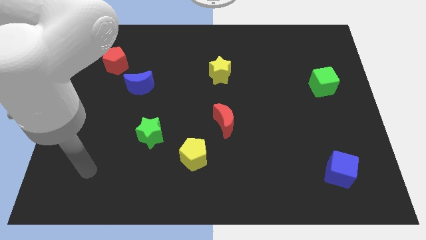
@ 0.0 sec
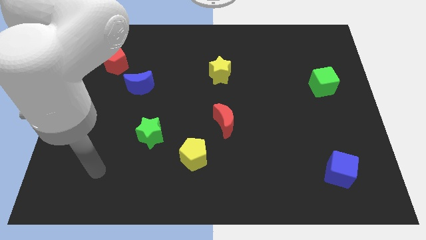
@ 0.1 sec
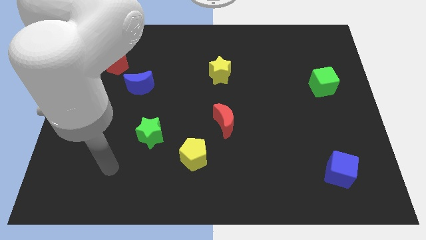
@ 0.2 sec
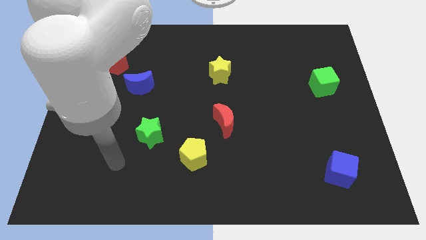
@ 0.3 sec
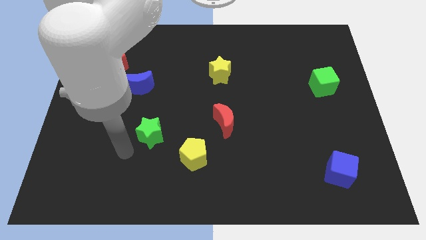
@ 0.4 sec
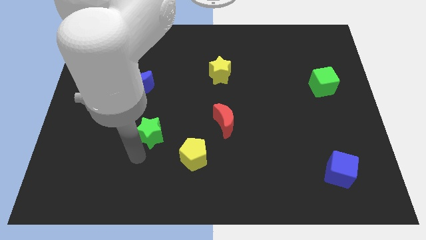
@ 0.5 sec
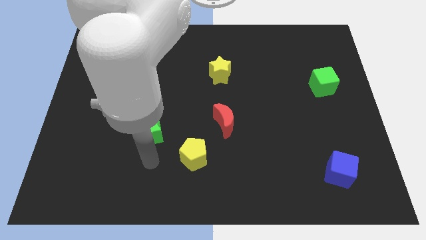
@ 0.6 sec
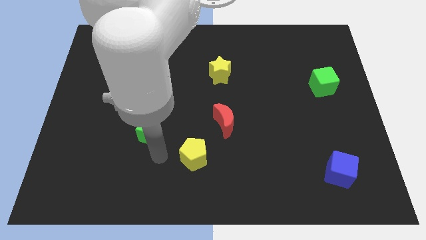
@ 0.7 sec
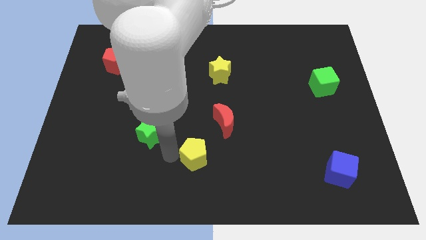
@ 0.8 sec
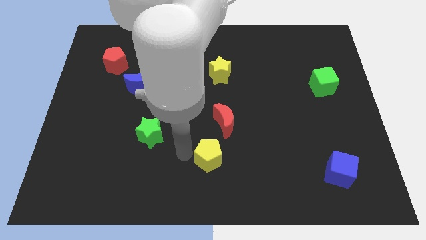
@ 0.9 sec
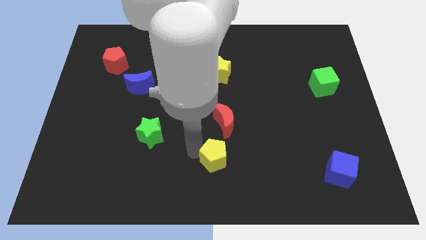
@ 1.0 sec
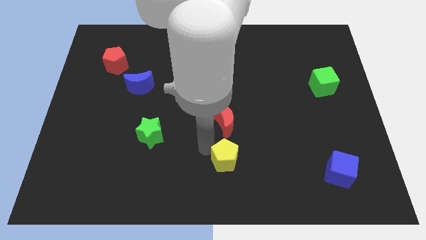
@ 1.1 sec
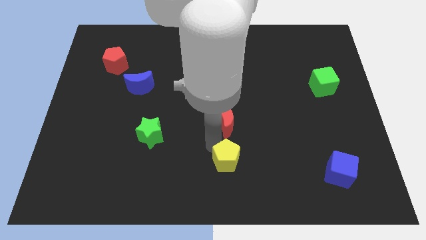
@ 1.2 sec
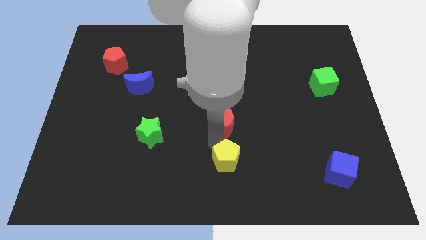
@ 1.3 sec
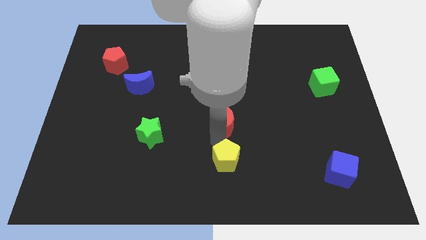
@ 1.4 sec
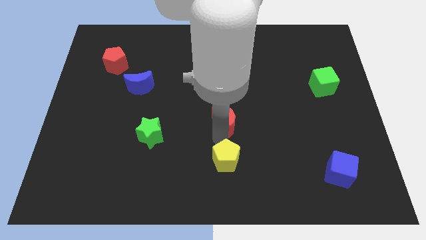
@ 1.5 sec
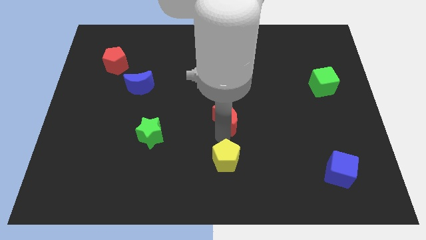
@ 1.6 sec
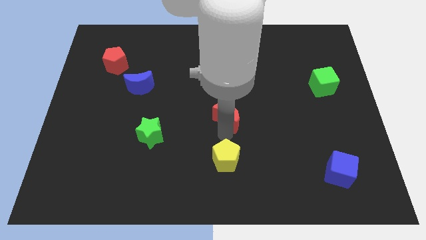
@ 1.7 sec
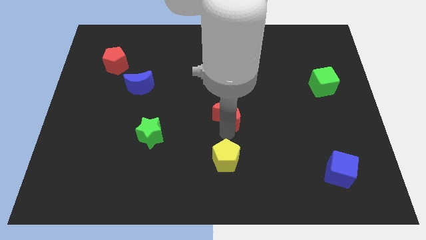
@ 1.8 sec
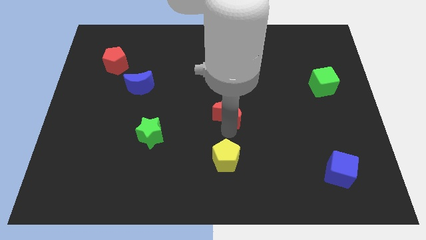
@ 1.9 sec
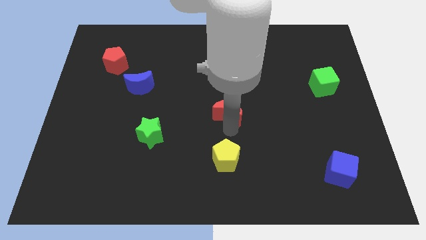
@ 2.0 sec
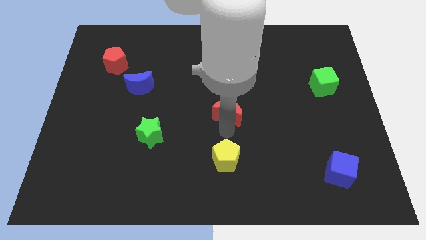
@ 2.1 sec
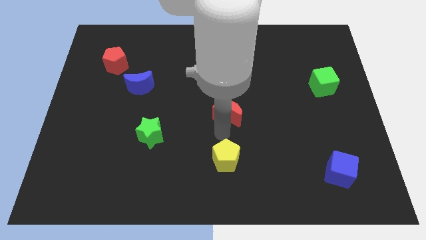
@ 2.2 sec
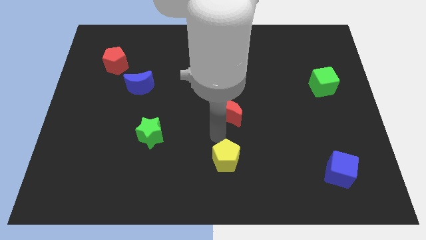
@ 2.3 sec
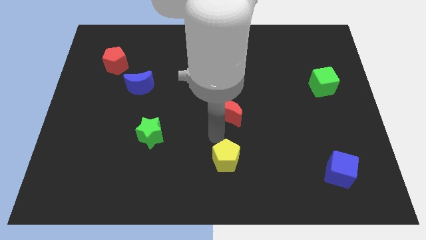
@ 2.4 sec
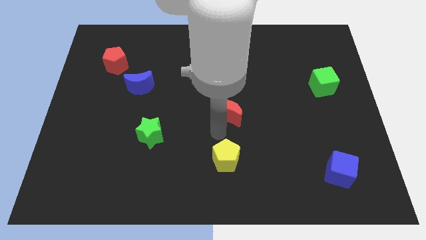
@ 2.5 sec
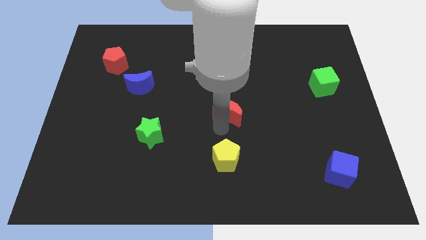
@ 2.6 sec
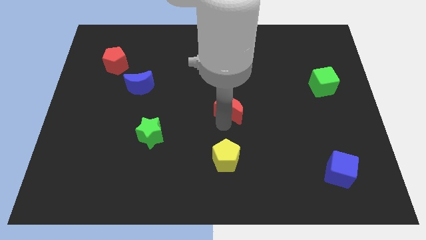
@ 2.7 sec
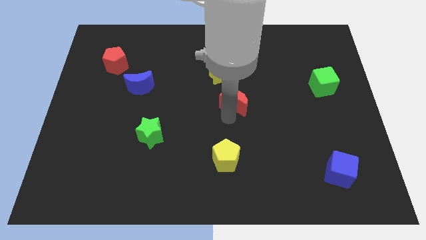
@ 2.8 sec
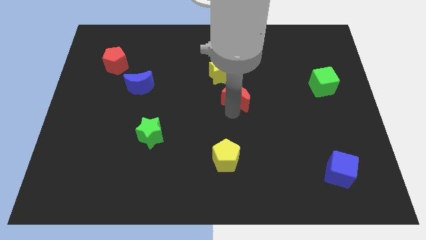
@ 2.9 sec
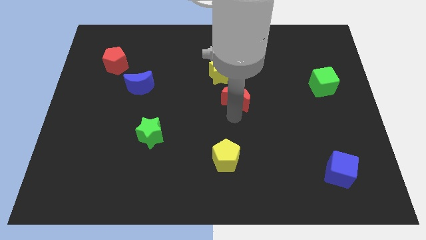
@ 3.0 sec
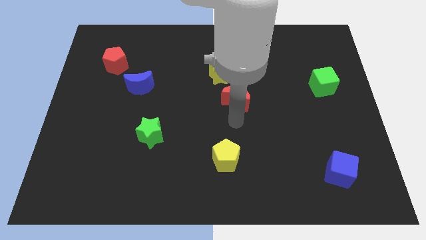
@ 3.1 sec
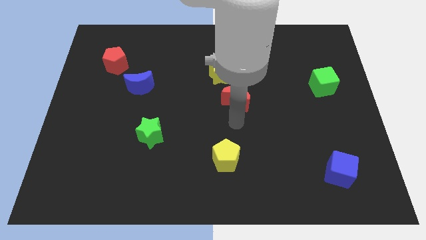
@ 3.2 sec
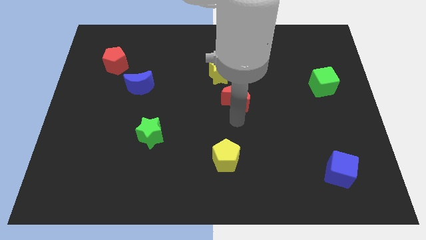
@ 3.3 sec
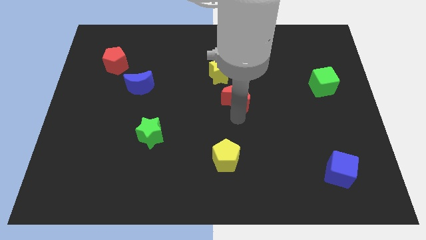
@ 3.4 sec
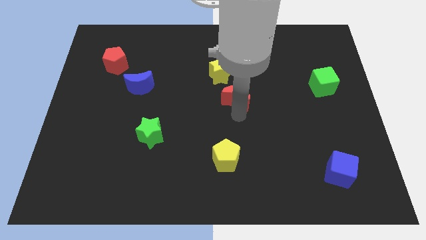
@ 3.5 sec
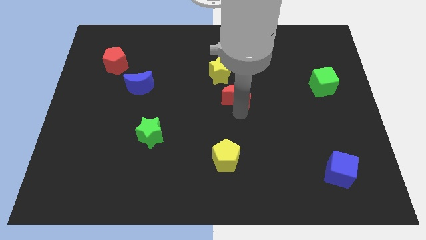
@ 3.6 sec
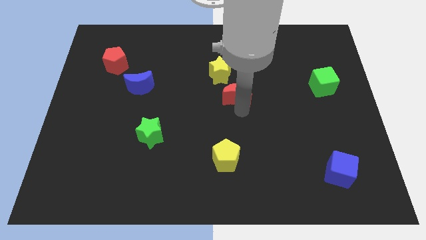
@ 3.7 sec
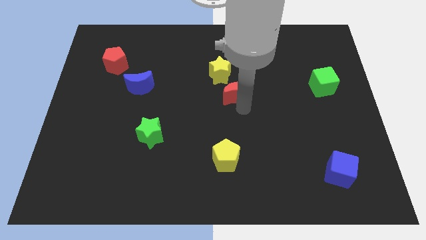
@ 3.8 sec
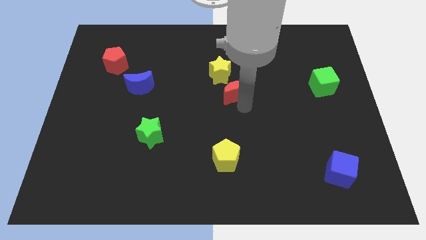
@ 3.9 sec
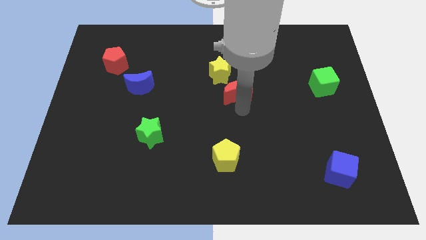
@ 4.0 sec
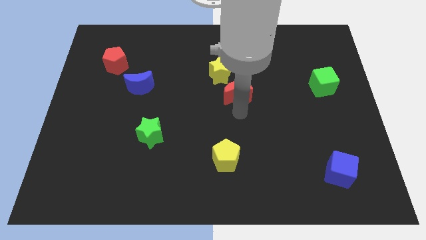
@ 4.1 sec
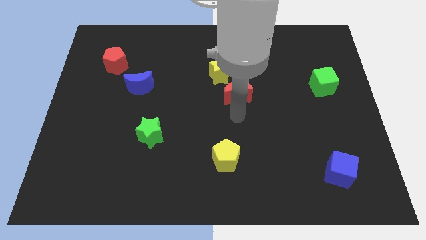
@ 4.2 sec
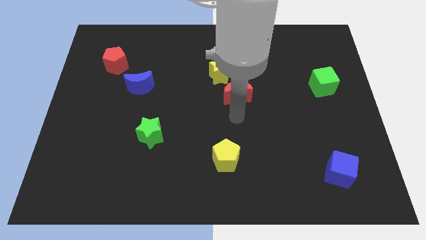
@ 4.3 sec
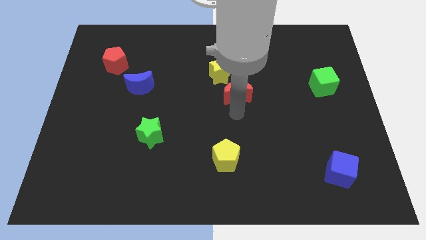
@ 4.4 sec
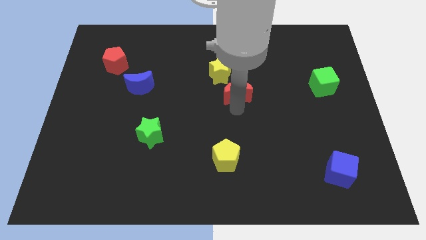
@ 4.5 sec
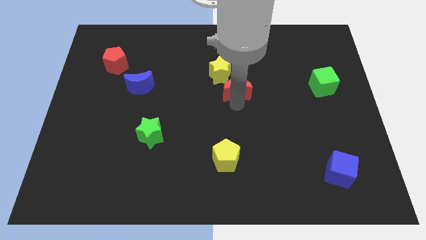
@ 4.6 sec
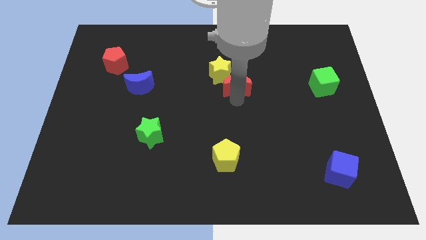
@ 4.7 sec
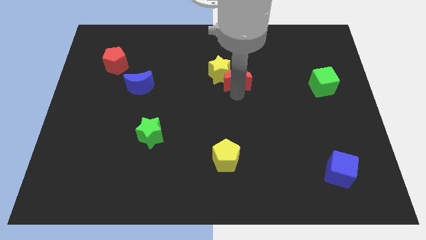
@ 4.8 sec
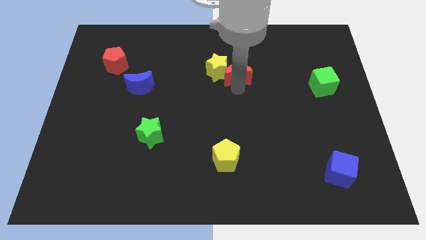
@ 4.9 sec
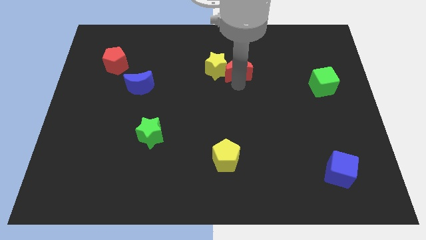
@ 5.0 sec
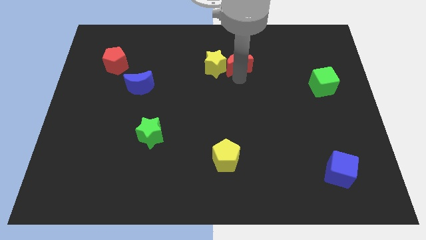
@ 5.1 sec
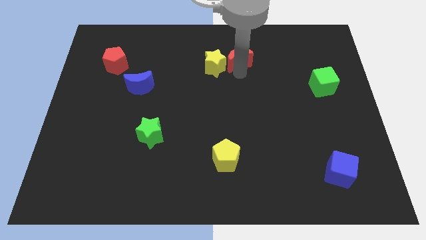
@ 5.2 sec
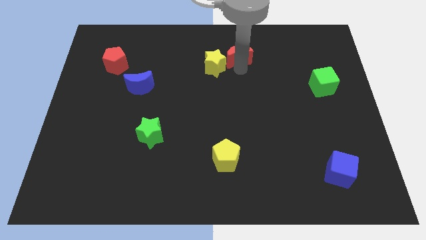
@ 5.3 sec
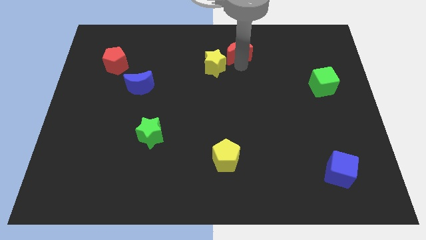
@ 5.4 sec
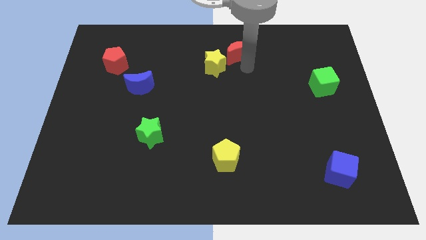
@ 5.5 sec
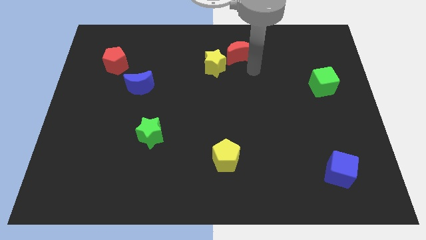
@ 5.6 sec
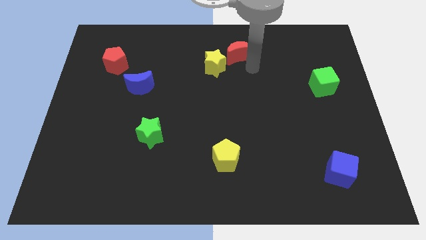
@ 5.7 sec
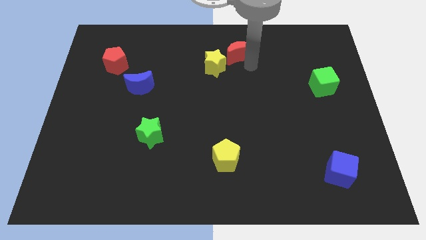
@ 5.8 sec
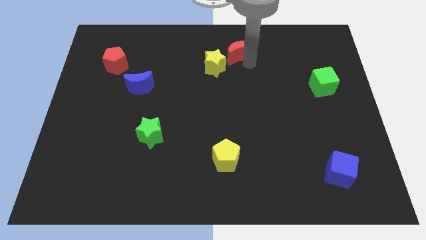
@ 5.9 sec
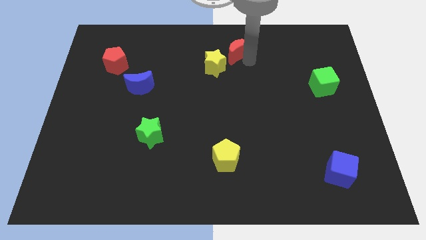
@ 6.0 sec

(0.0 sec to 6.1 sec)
put the red moon to the top side
